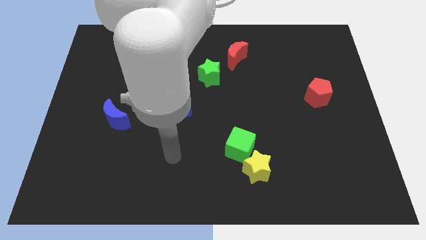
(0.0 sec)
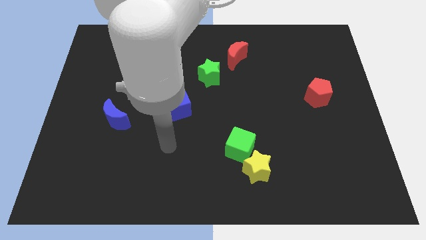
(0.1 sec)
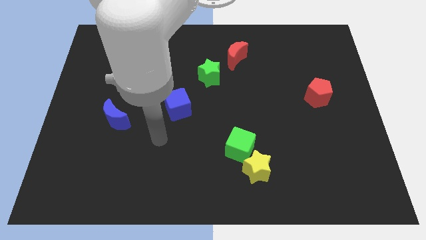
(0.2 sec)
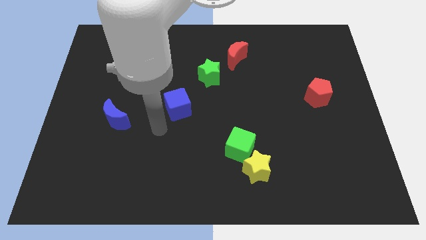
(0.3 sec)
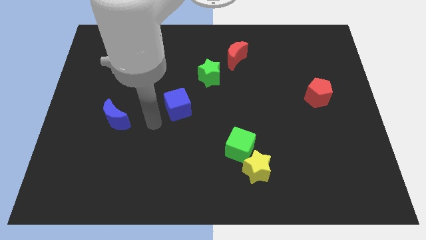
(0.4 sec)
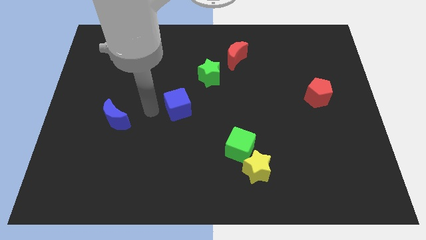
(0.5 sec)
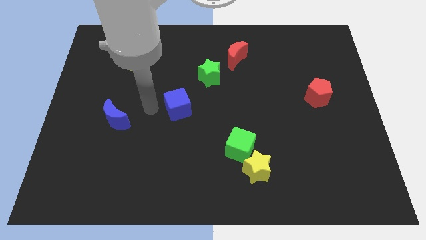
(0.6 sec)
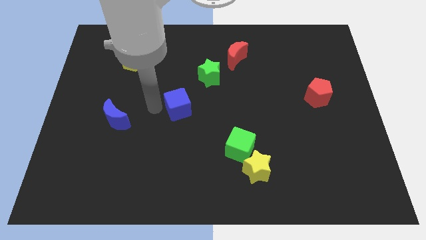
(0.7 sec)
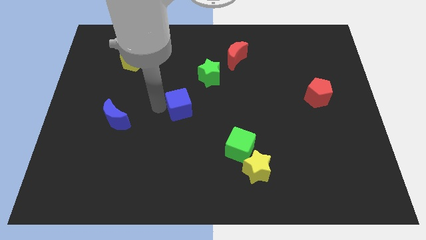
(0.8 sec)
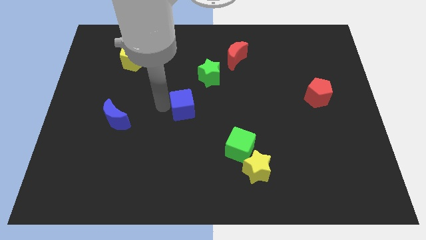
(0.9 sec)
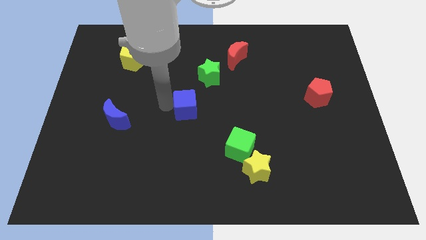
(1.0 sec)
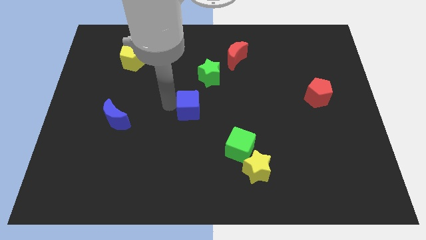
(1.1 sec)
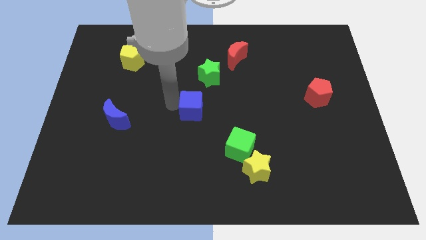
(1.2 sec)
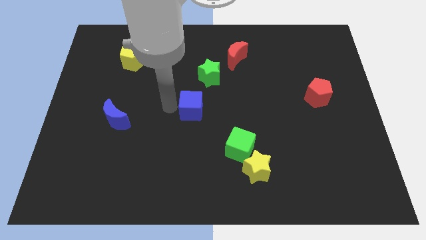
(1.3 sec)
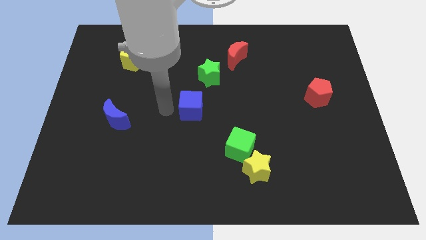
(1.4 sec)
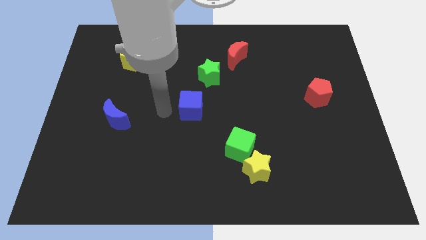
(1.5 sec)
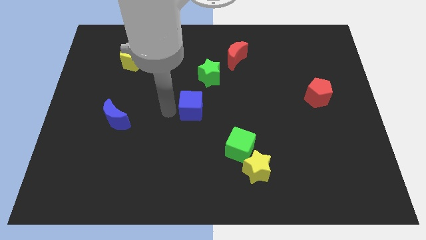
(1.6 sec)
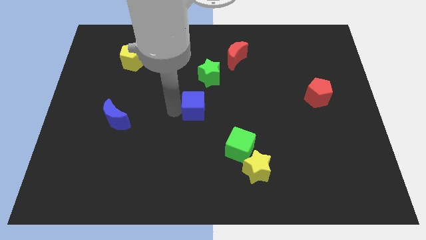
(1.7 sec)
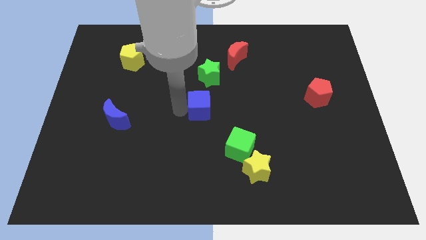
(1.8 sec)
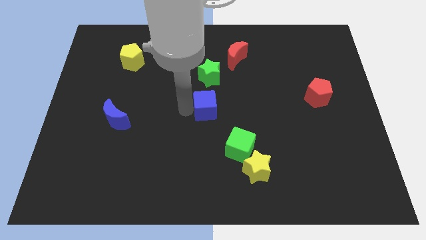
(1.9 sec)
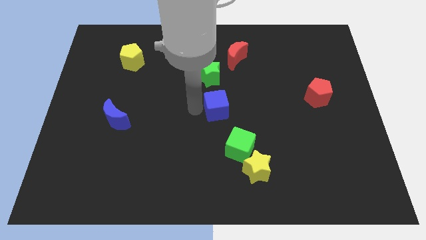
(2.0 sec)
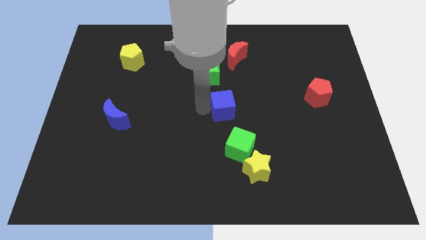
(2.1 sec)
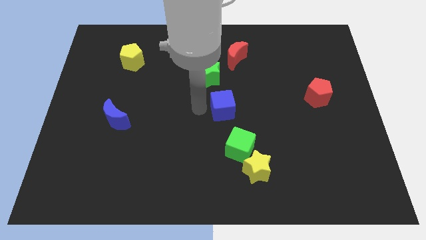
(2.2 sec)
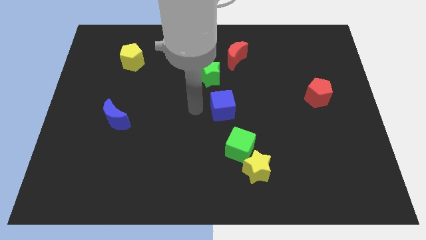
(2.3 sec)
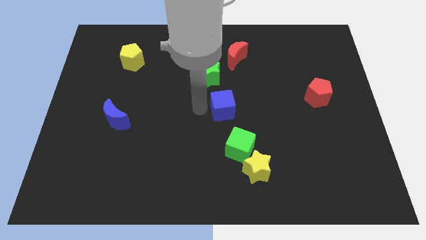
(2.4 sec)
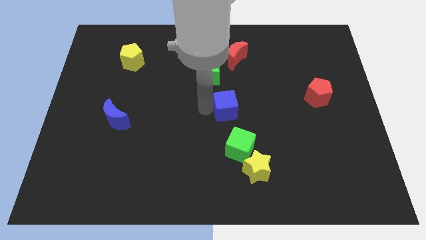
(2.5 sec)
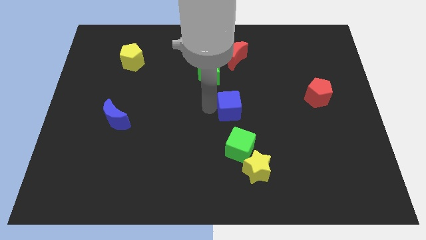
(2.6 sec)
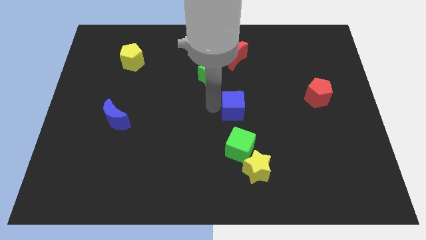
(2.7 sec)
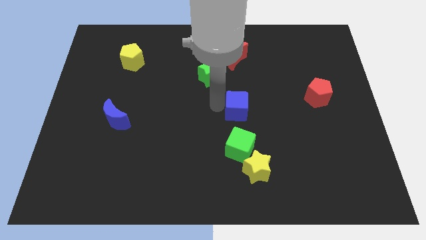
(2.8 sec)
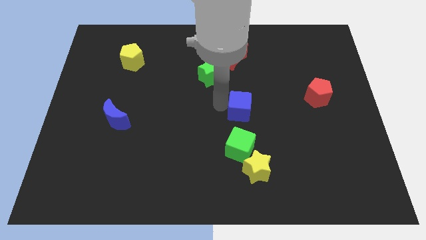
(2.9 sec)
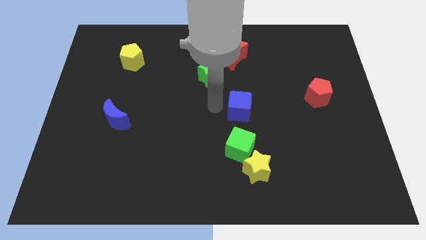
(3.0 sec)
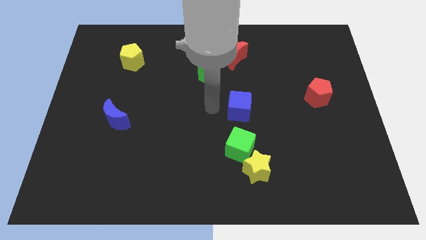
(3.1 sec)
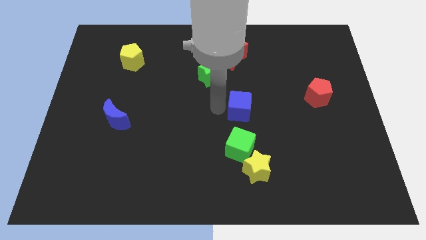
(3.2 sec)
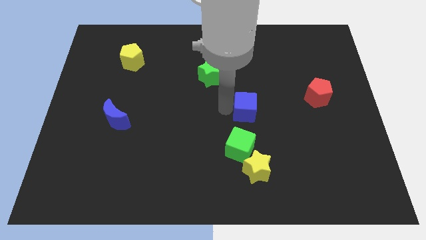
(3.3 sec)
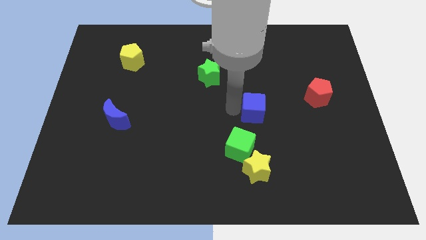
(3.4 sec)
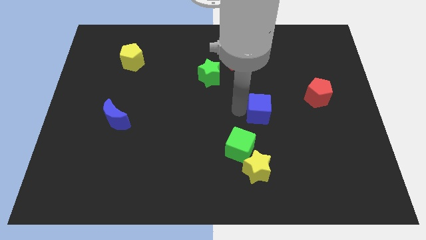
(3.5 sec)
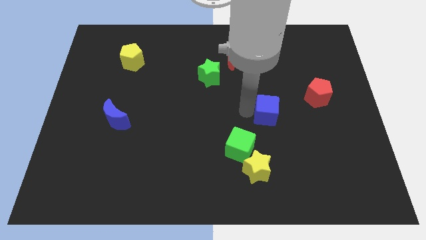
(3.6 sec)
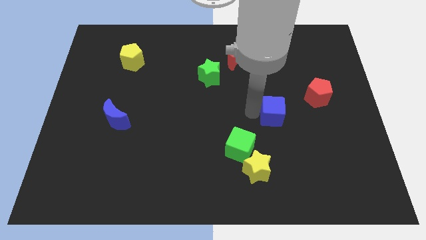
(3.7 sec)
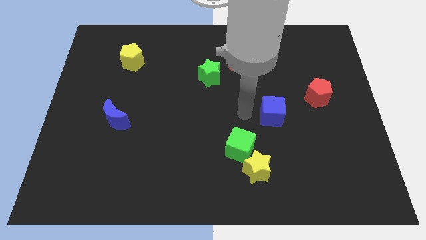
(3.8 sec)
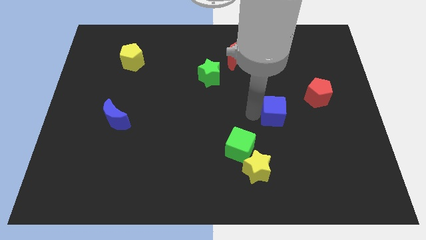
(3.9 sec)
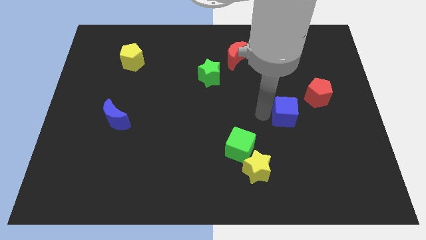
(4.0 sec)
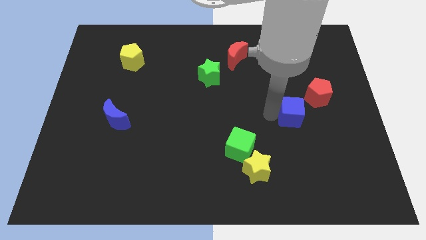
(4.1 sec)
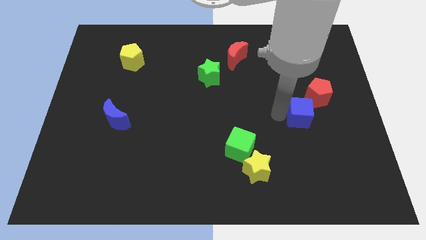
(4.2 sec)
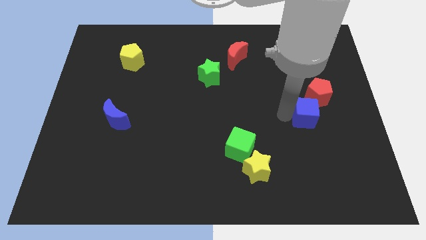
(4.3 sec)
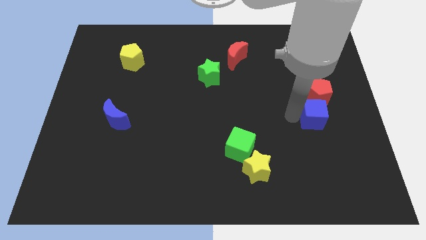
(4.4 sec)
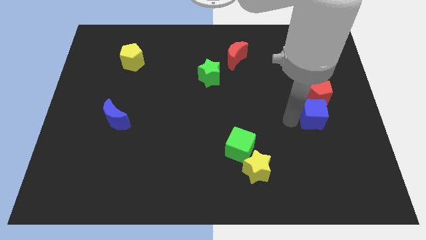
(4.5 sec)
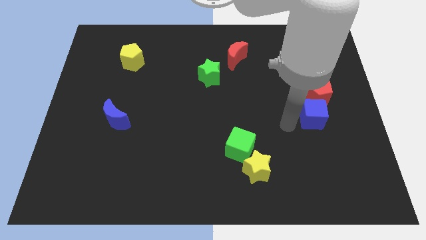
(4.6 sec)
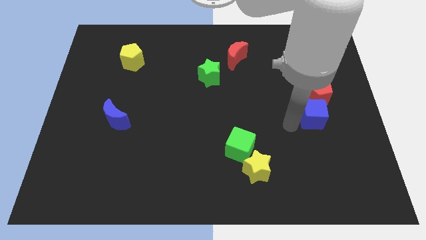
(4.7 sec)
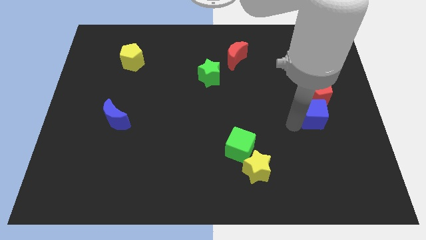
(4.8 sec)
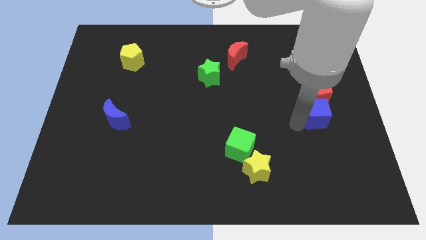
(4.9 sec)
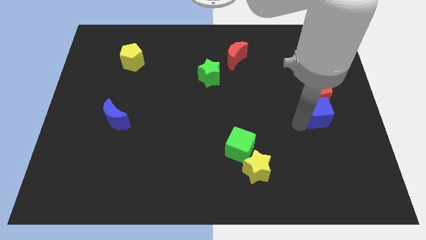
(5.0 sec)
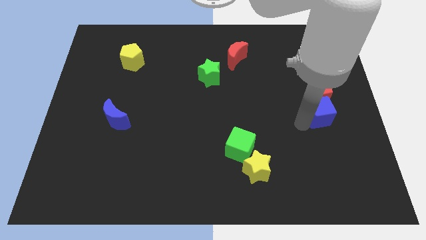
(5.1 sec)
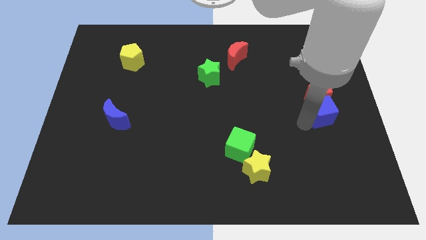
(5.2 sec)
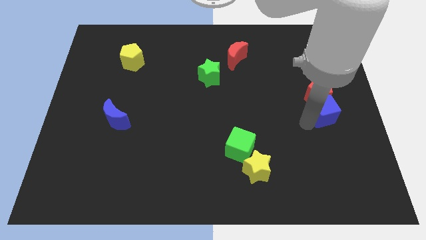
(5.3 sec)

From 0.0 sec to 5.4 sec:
move the blue cube to the center right

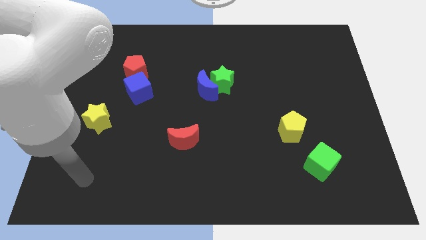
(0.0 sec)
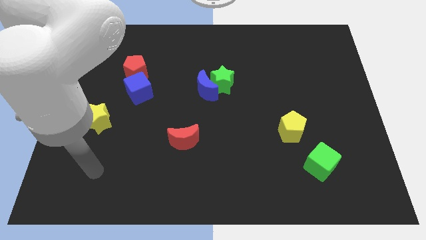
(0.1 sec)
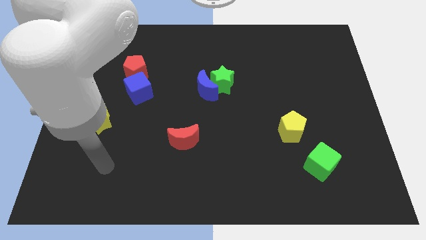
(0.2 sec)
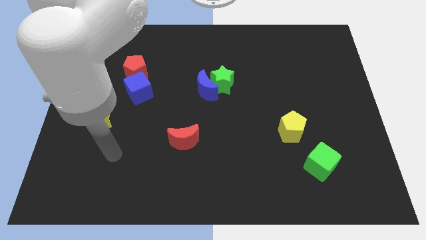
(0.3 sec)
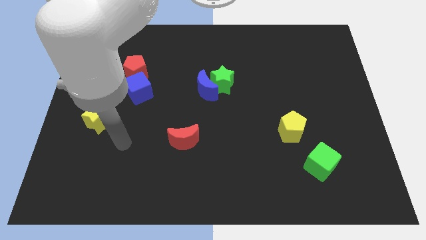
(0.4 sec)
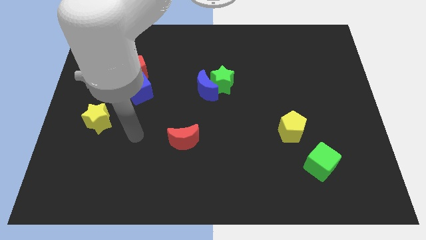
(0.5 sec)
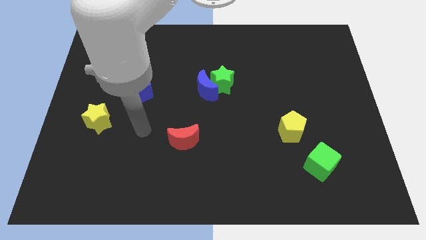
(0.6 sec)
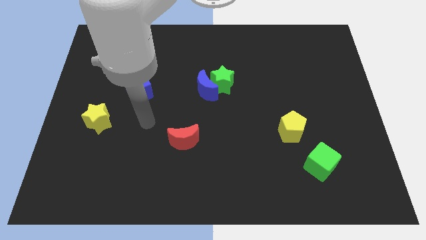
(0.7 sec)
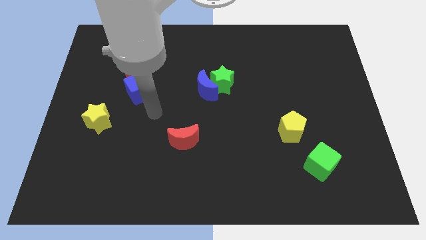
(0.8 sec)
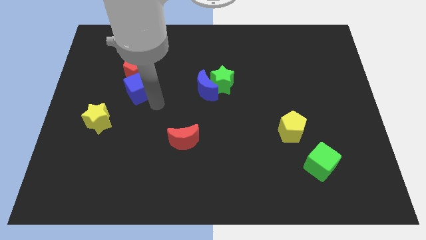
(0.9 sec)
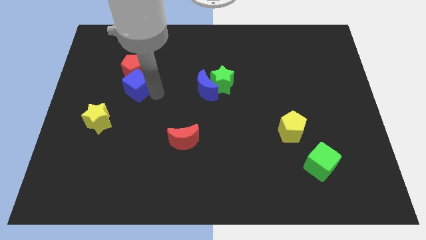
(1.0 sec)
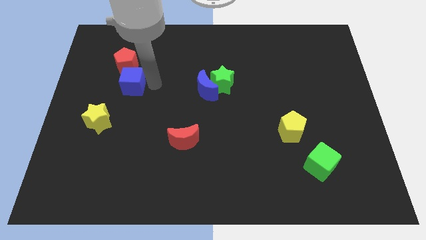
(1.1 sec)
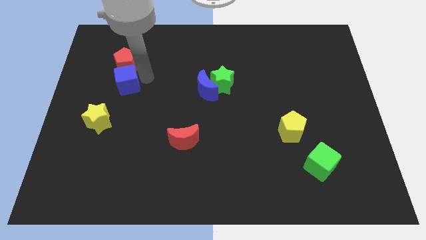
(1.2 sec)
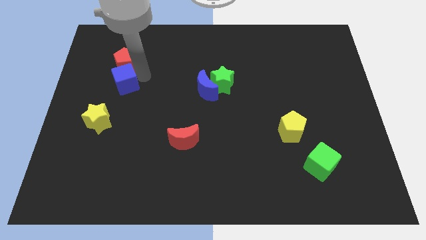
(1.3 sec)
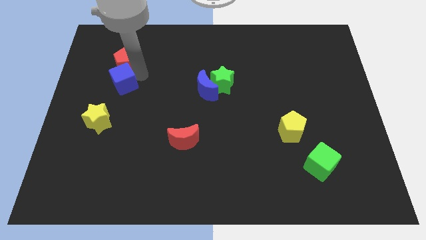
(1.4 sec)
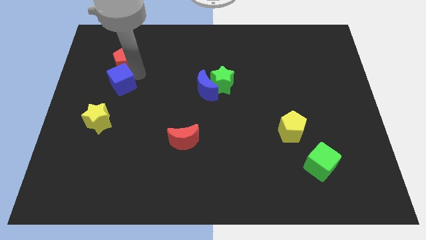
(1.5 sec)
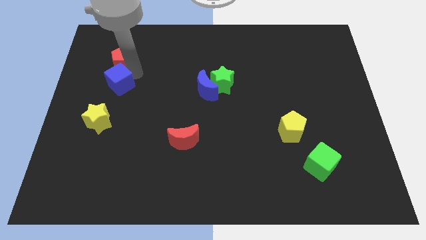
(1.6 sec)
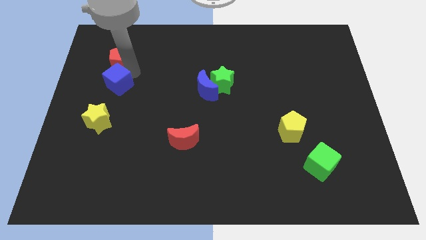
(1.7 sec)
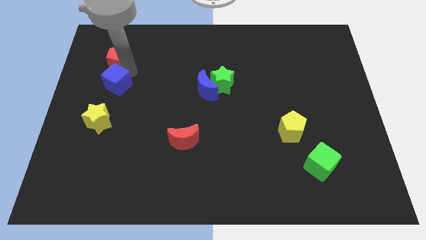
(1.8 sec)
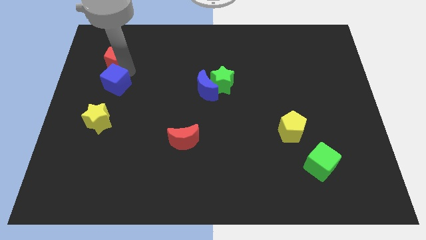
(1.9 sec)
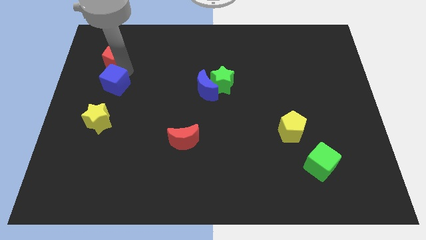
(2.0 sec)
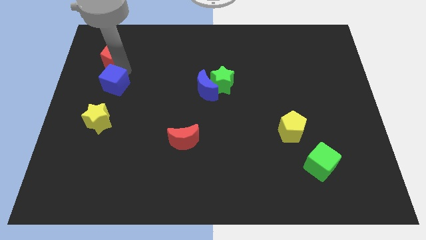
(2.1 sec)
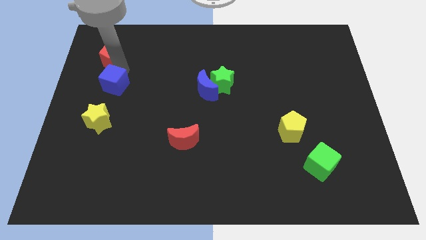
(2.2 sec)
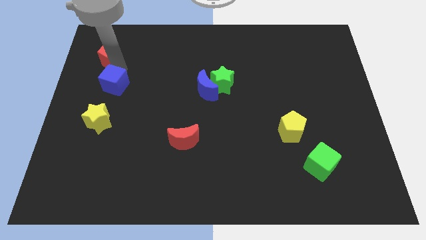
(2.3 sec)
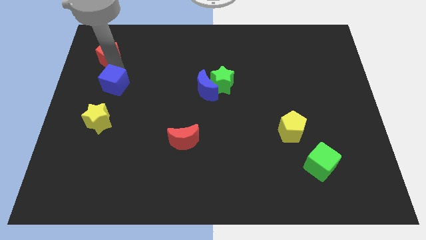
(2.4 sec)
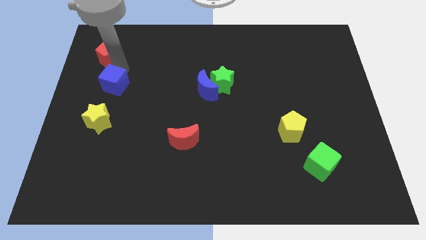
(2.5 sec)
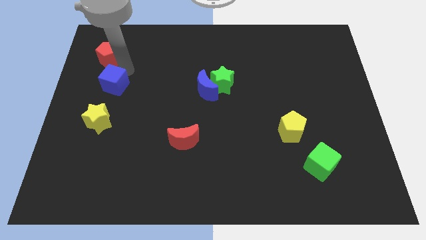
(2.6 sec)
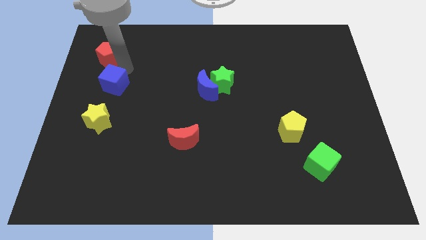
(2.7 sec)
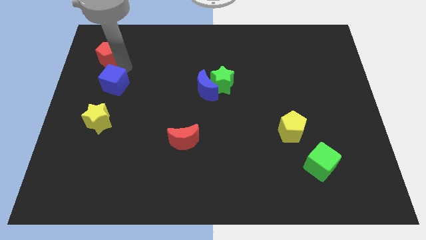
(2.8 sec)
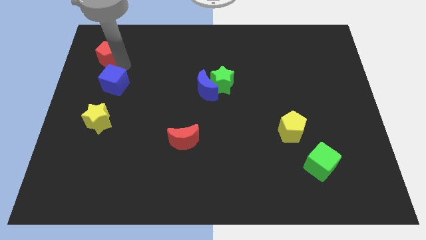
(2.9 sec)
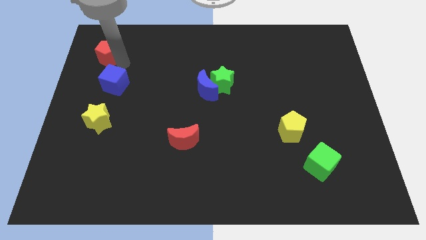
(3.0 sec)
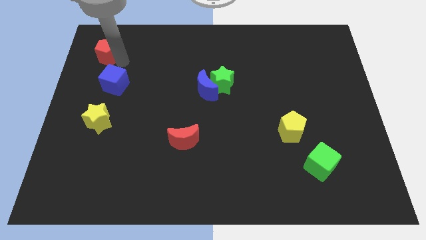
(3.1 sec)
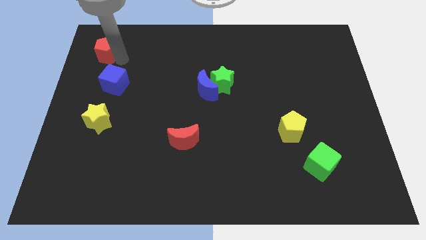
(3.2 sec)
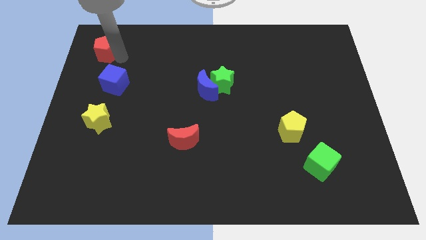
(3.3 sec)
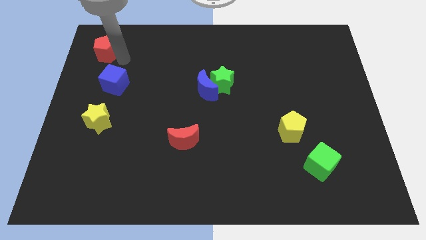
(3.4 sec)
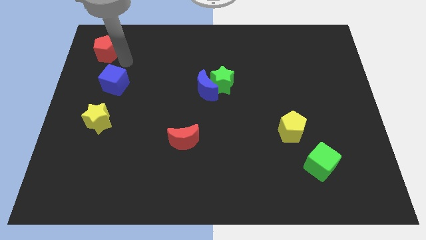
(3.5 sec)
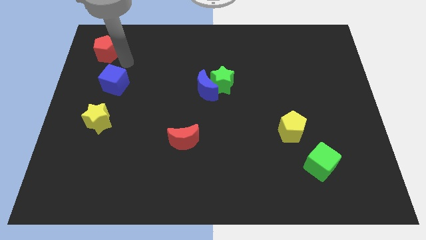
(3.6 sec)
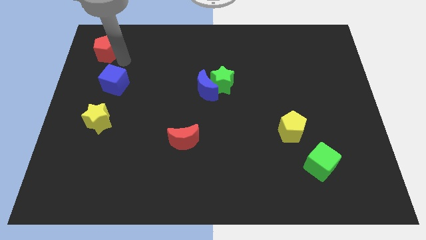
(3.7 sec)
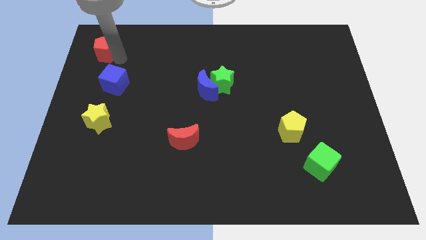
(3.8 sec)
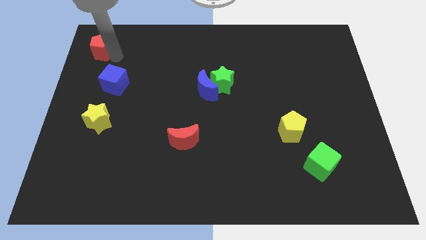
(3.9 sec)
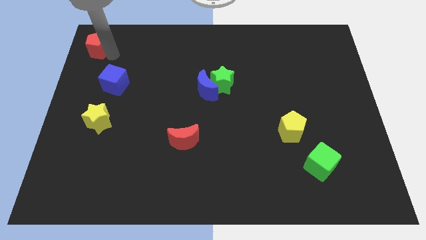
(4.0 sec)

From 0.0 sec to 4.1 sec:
put the red pentagon to the upper left corner
